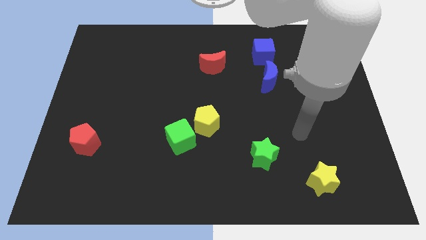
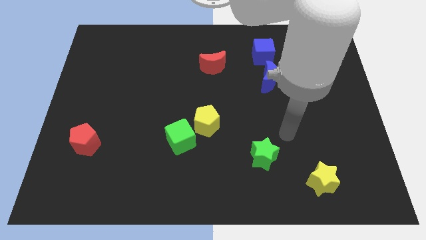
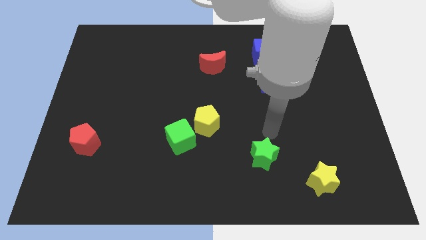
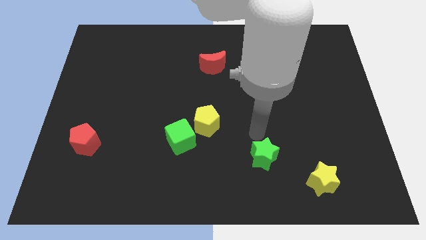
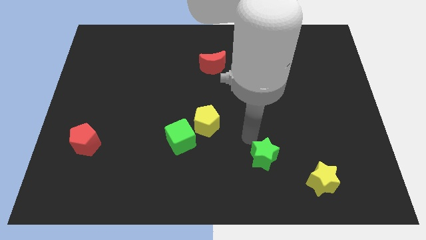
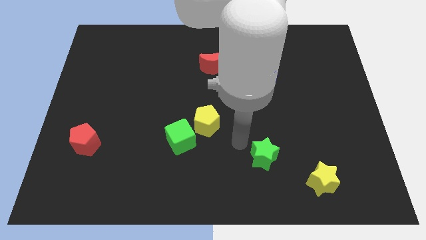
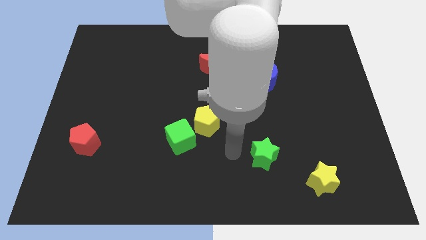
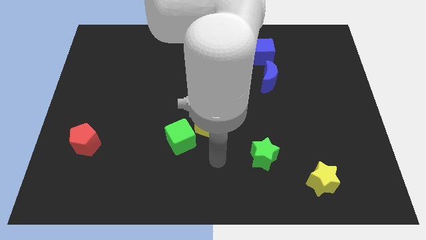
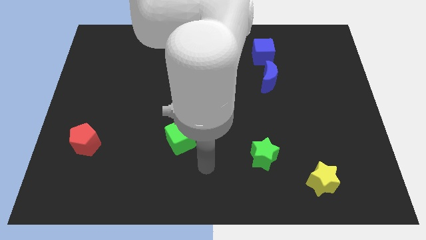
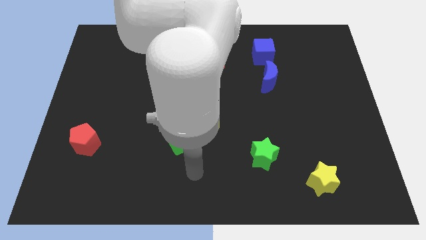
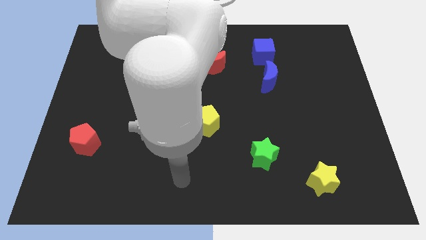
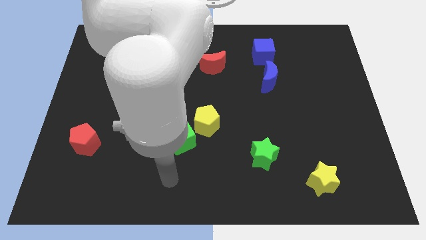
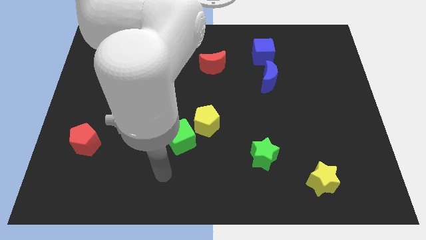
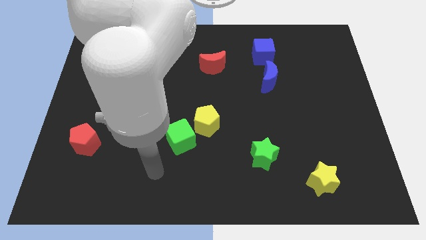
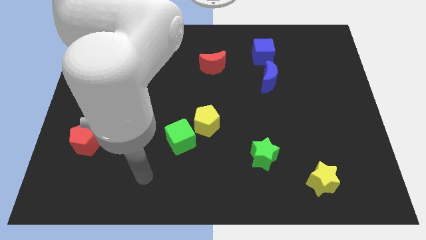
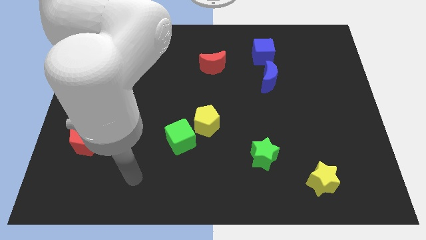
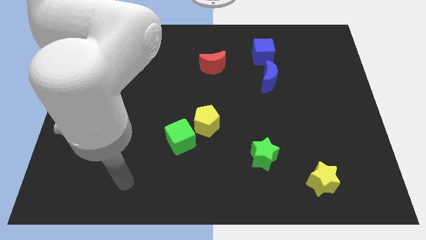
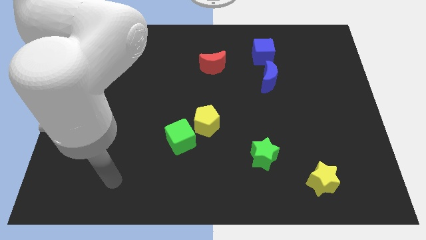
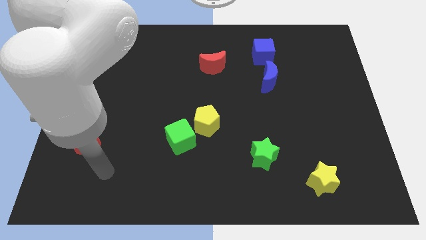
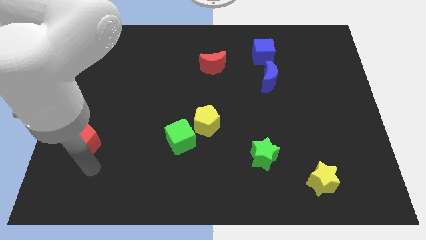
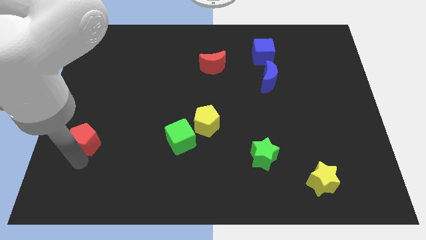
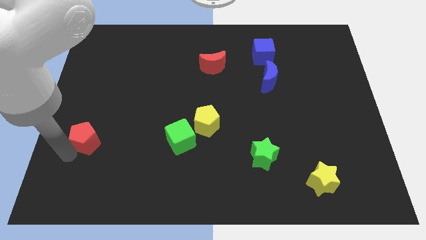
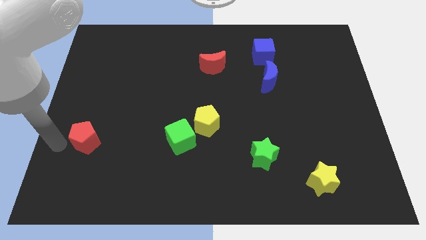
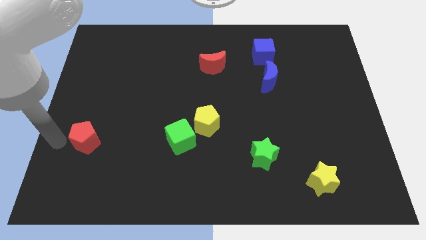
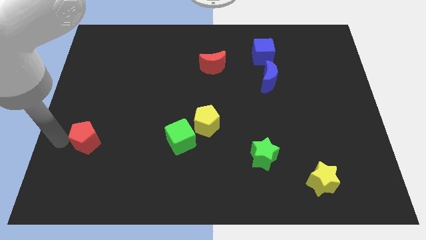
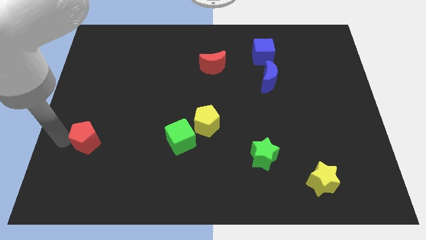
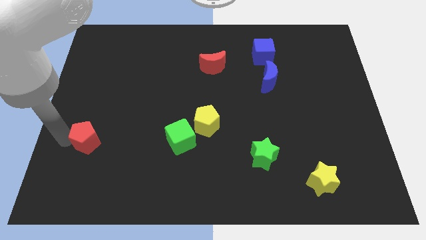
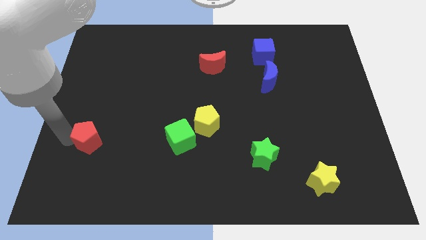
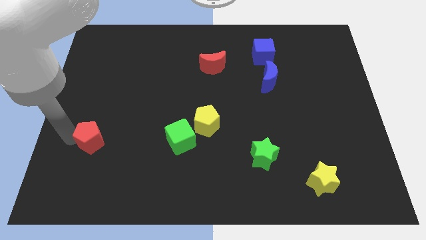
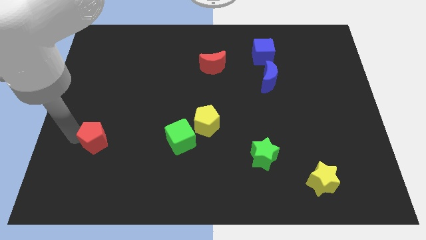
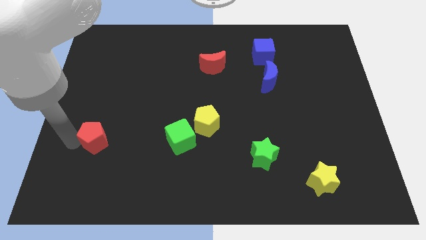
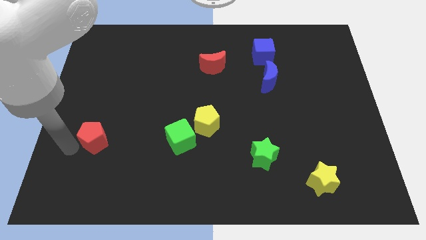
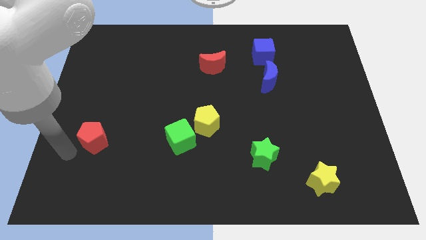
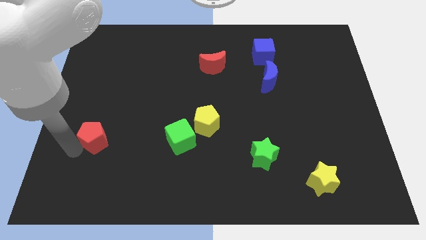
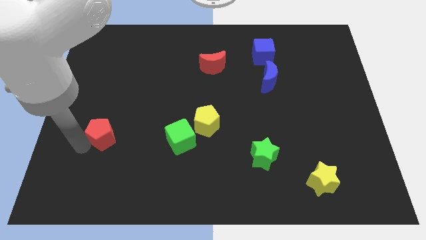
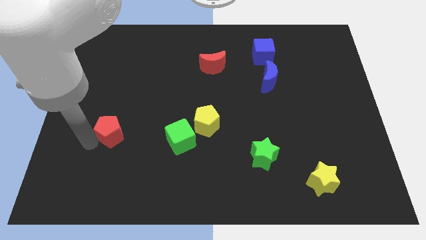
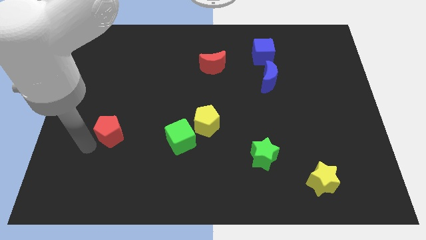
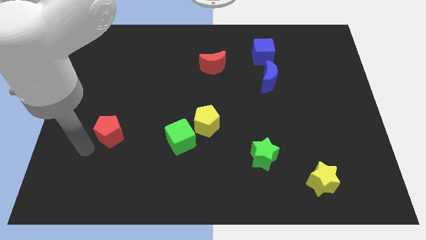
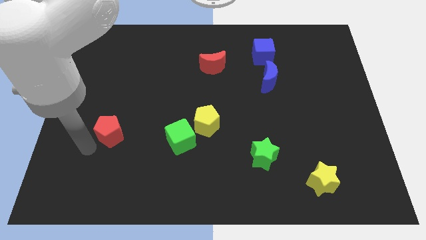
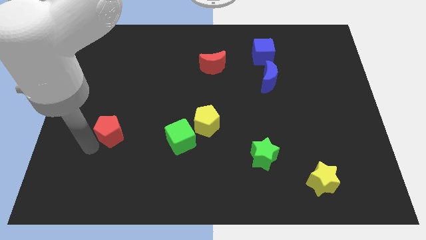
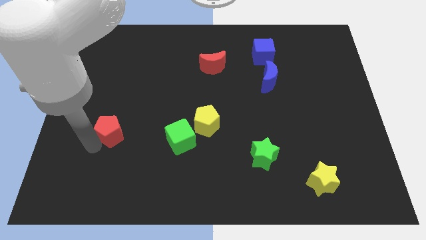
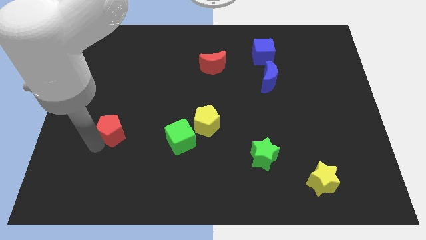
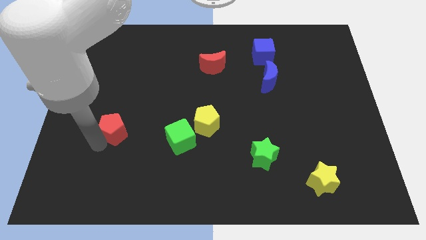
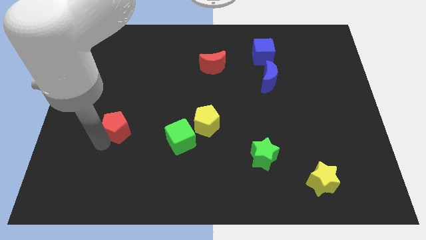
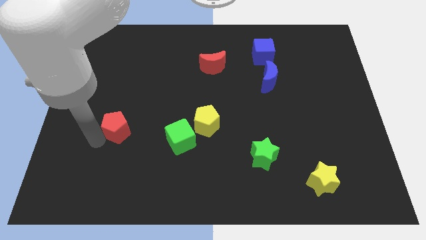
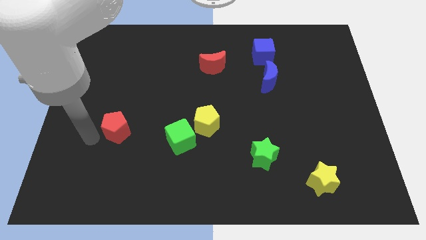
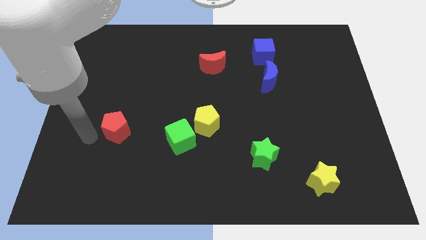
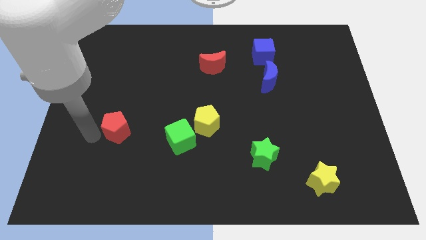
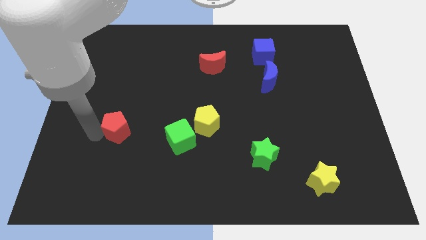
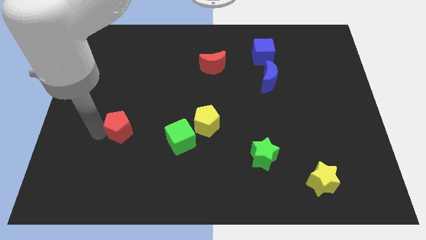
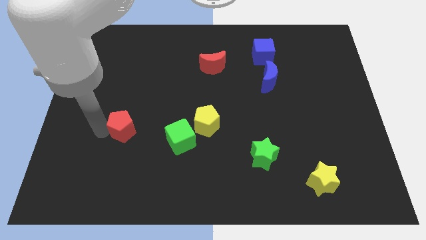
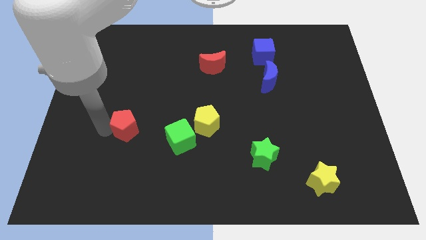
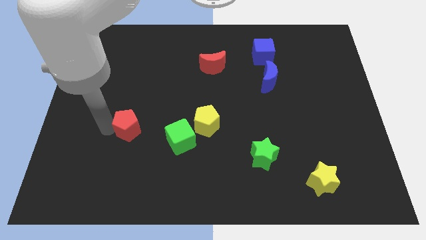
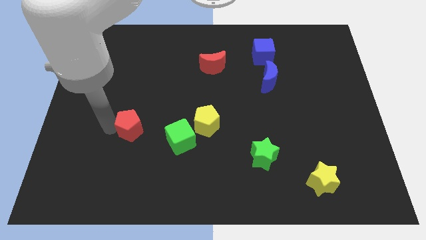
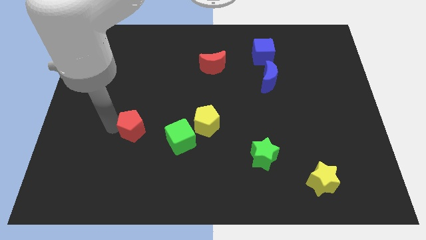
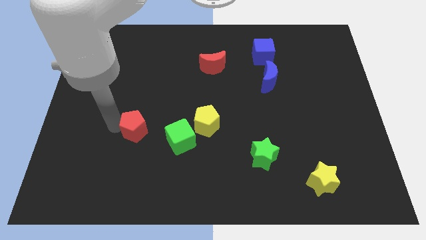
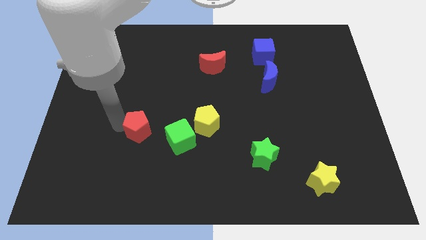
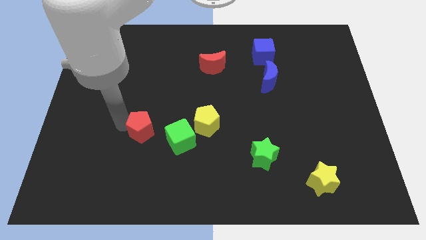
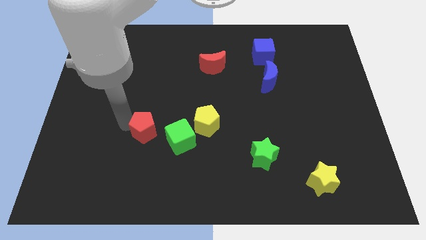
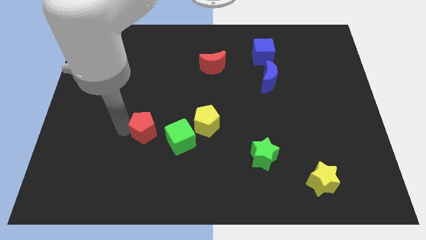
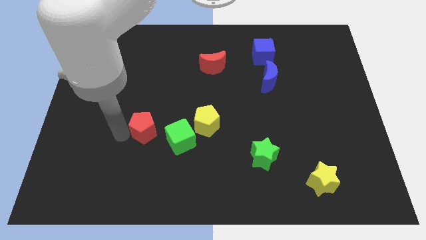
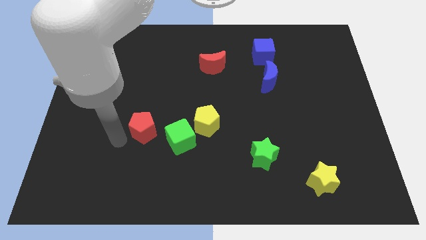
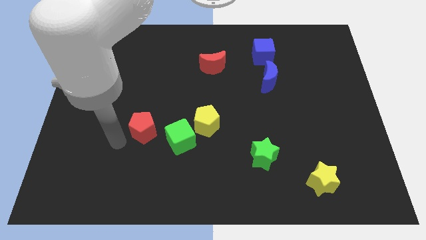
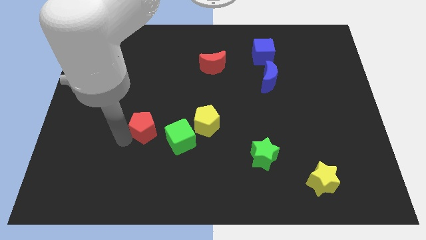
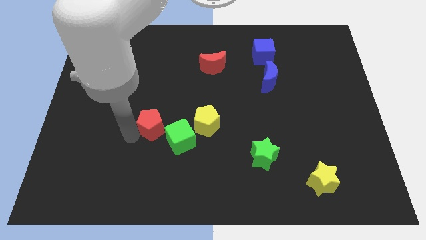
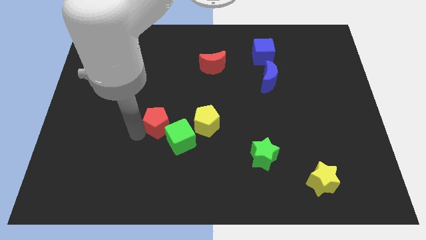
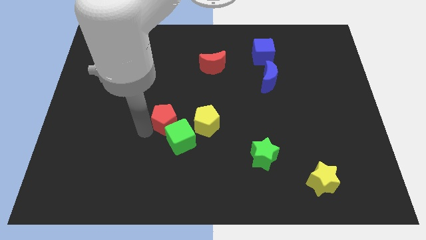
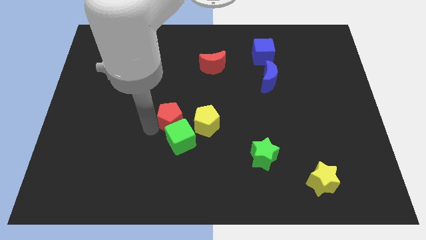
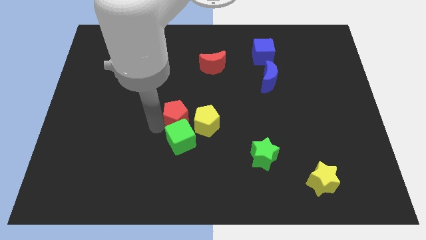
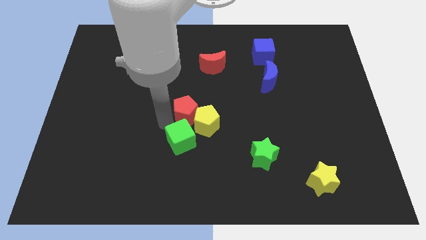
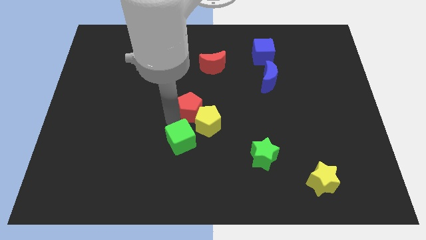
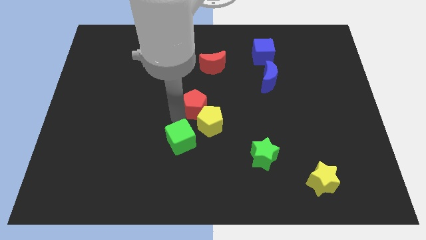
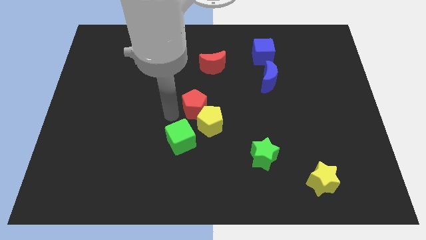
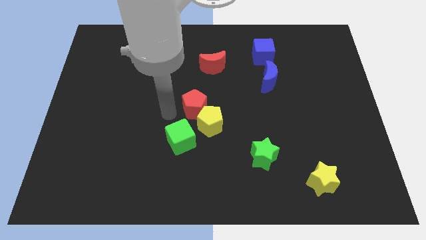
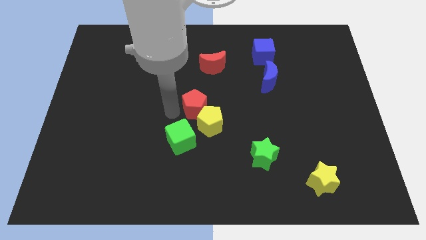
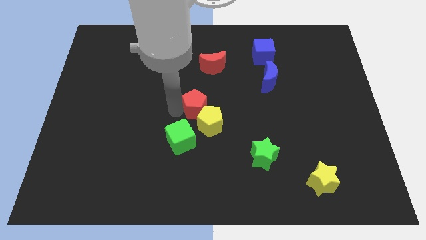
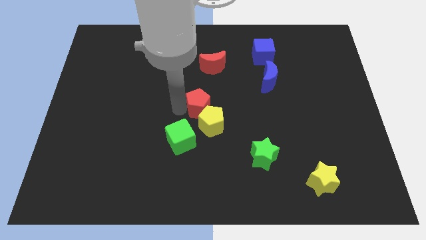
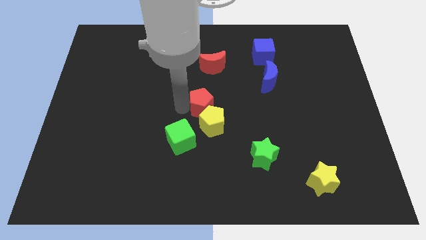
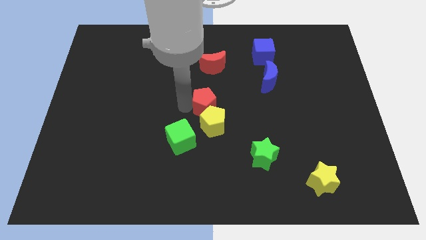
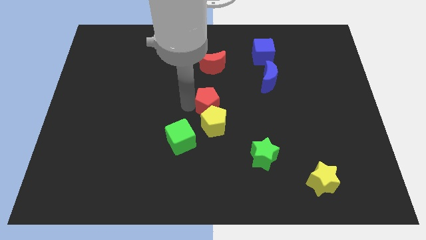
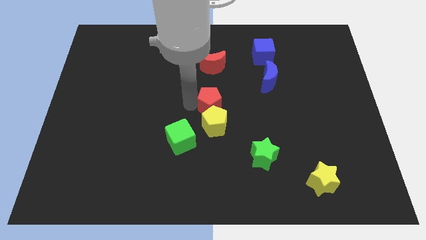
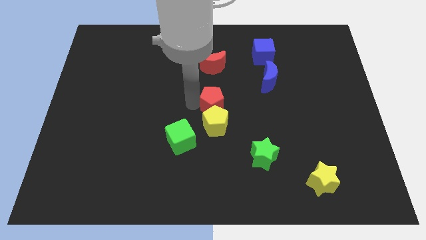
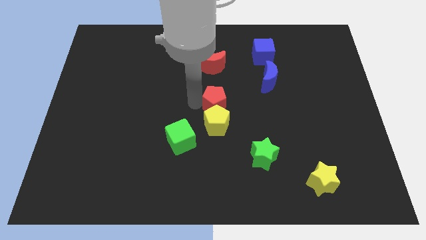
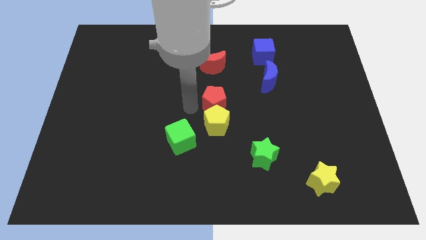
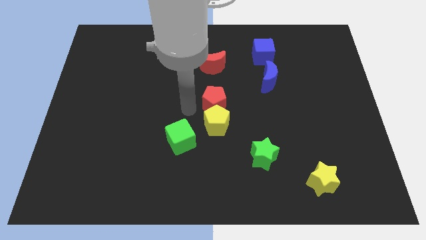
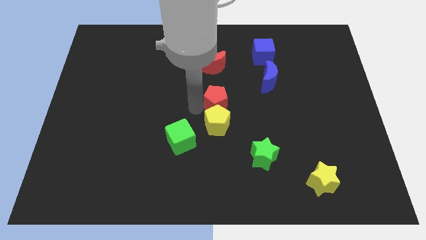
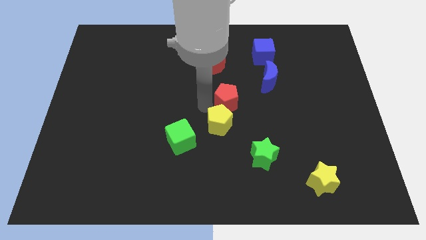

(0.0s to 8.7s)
put the red pentagon to the bottom left side of the blue moon
